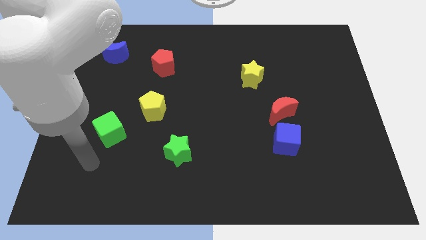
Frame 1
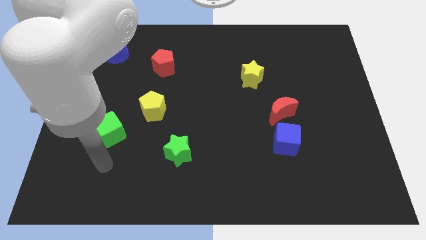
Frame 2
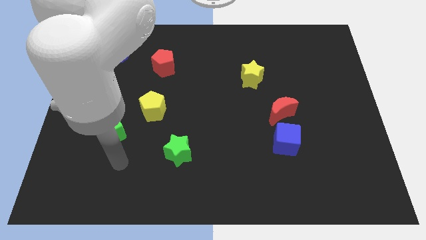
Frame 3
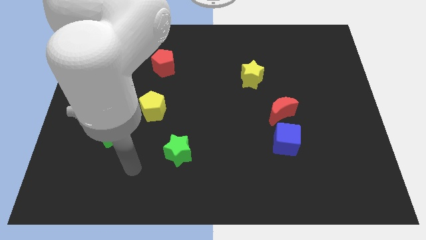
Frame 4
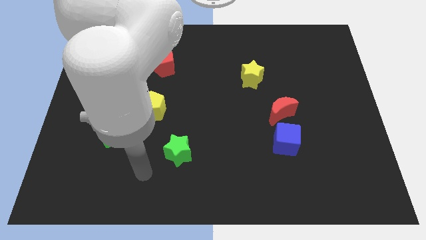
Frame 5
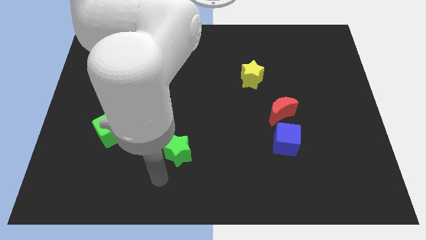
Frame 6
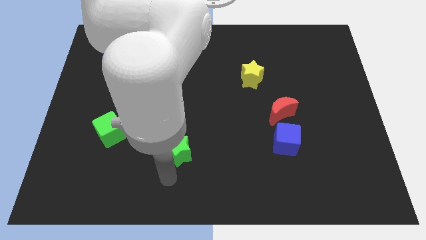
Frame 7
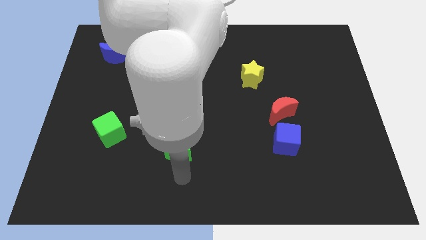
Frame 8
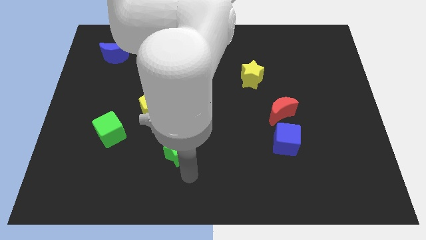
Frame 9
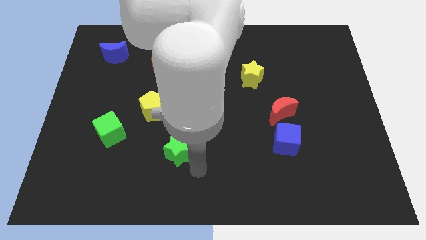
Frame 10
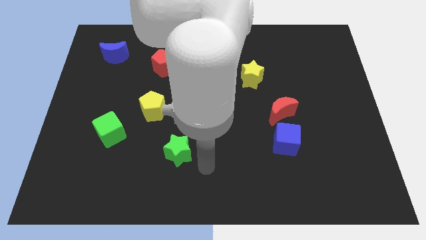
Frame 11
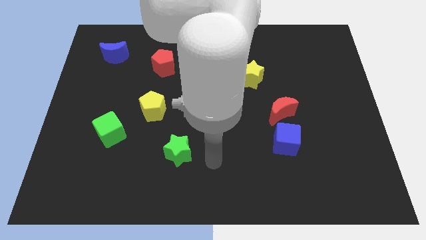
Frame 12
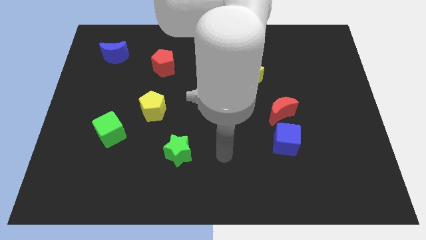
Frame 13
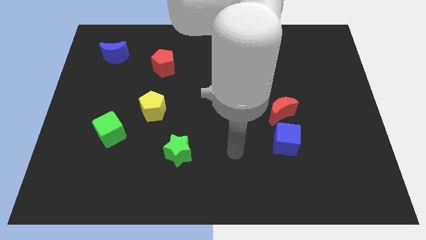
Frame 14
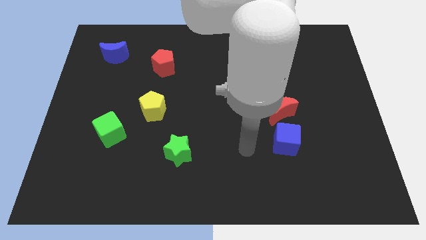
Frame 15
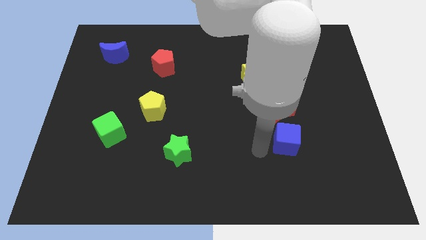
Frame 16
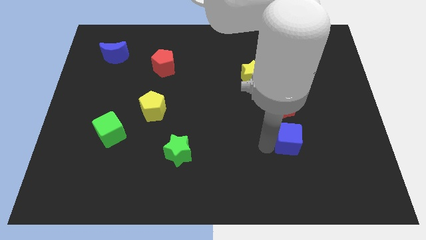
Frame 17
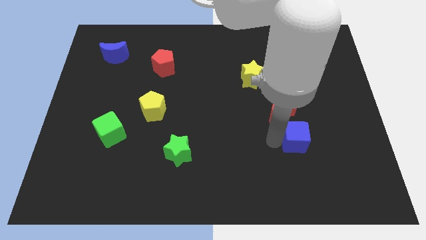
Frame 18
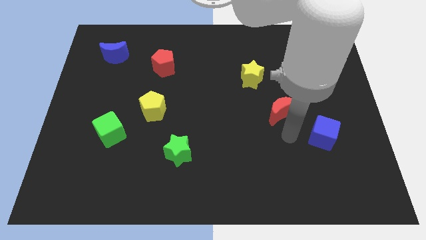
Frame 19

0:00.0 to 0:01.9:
separate the red moon from the blue cube

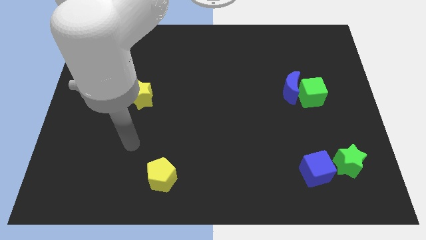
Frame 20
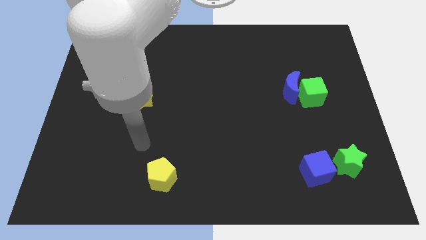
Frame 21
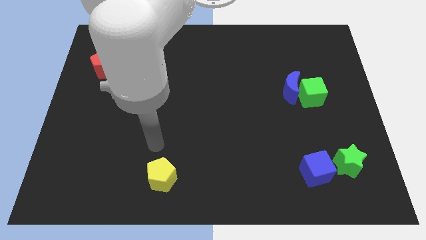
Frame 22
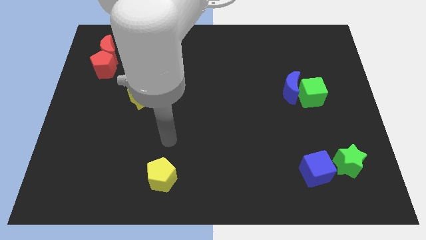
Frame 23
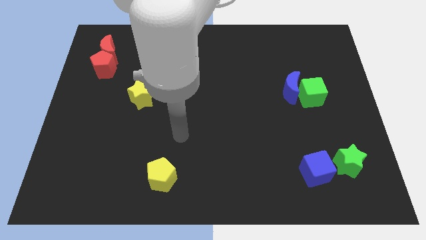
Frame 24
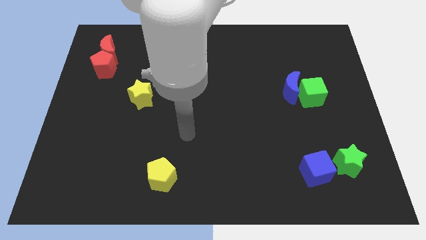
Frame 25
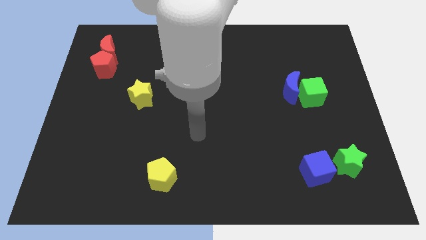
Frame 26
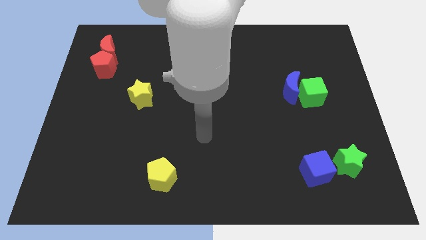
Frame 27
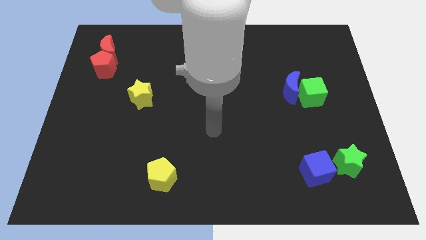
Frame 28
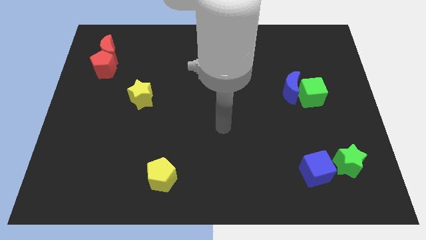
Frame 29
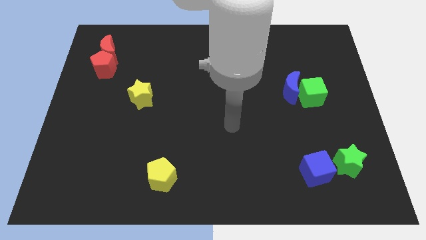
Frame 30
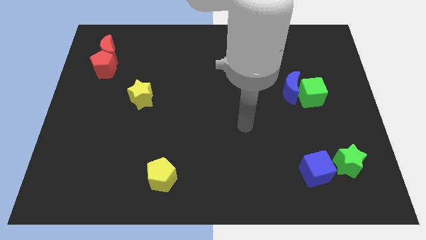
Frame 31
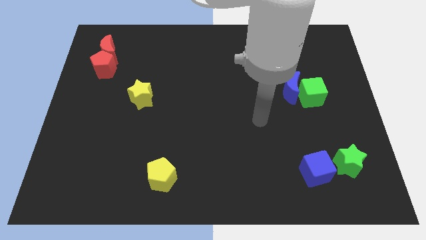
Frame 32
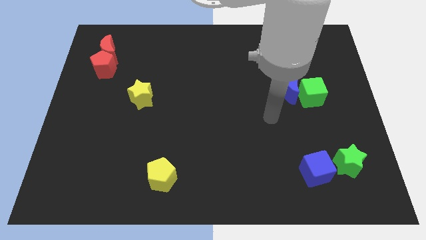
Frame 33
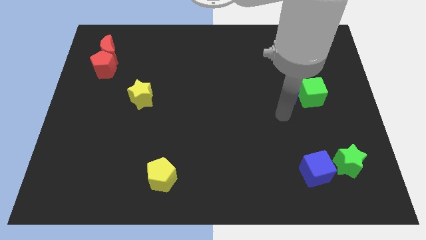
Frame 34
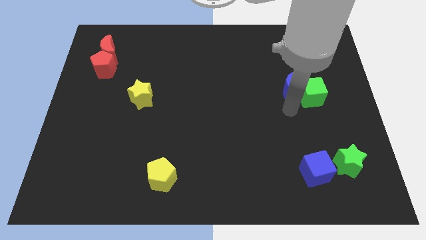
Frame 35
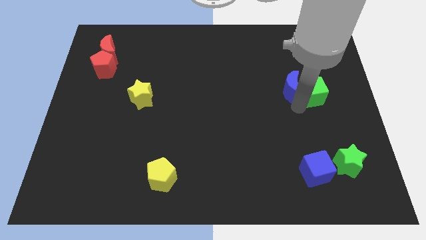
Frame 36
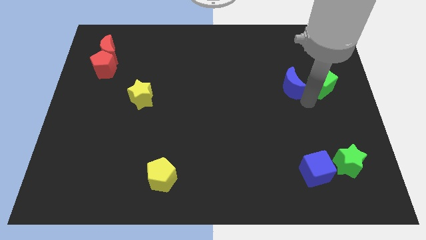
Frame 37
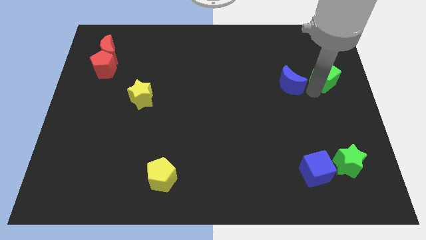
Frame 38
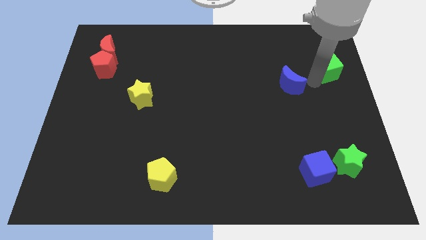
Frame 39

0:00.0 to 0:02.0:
pull the blue moon apart from the green cube

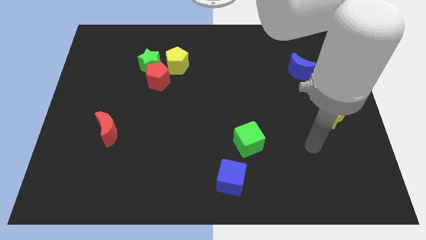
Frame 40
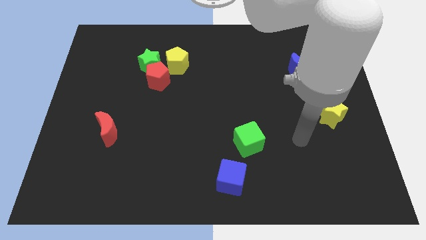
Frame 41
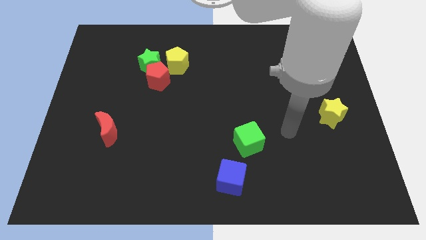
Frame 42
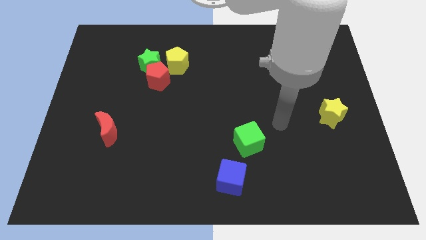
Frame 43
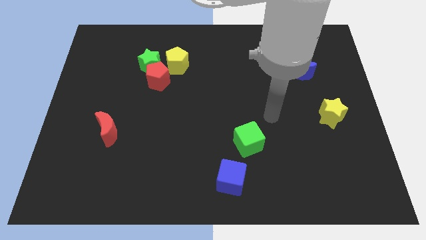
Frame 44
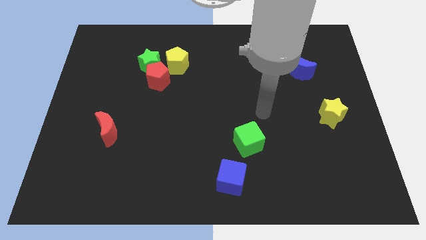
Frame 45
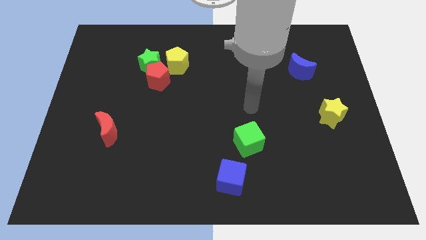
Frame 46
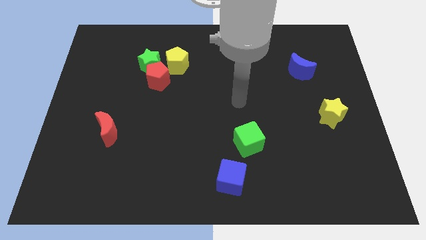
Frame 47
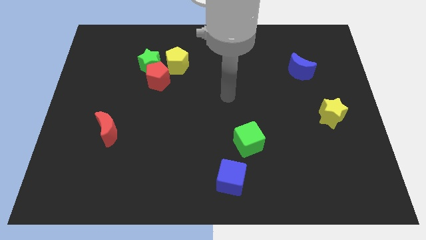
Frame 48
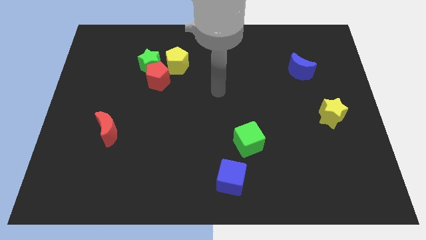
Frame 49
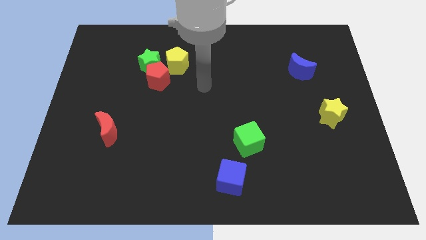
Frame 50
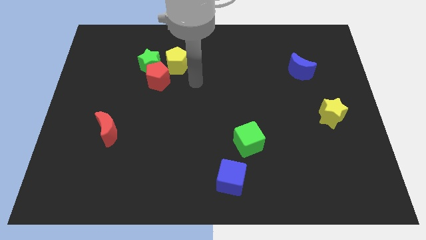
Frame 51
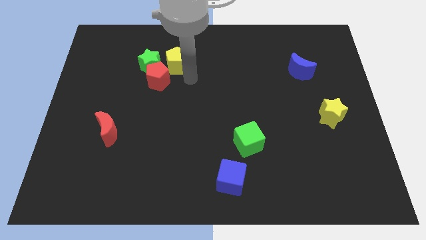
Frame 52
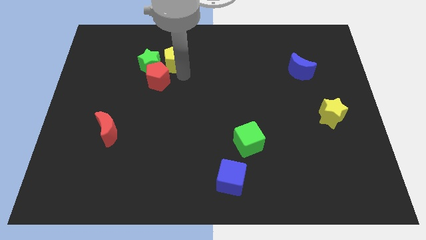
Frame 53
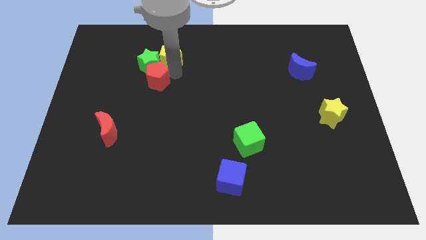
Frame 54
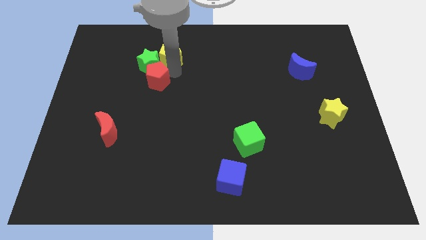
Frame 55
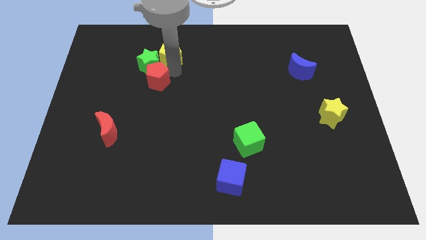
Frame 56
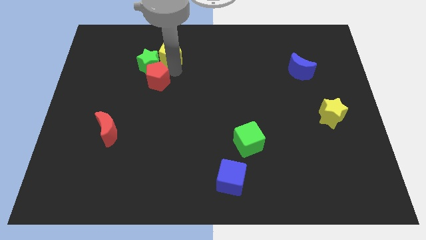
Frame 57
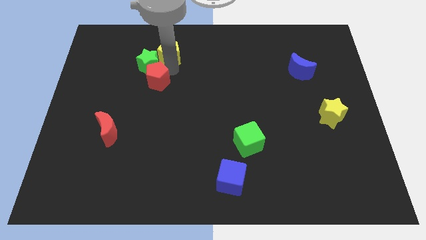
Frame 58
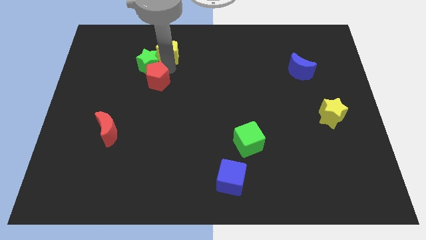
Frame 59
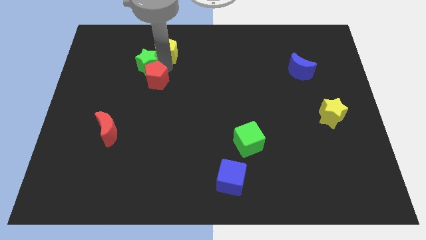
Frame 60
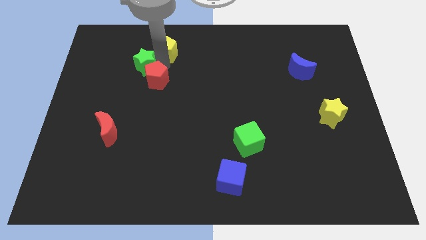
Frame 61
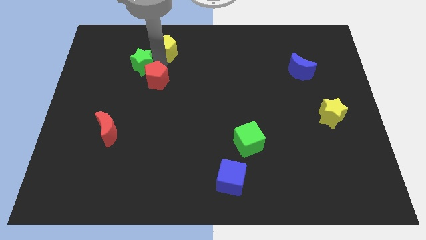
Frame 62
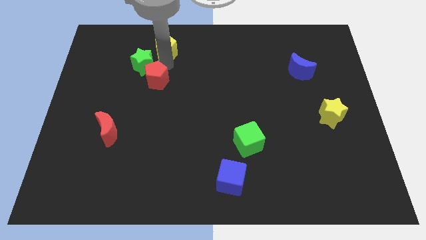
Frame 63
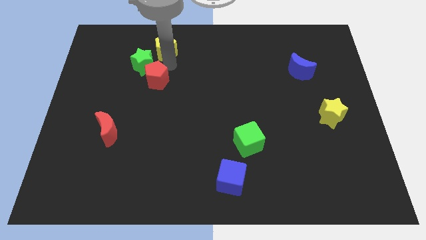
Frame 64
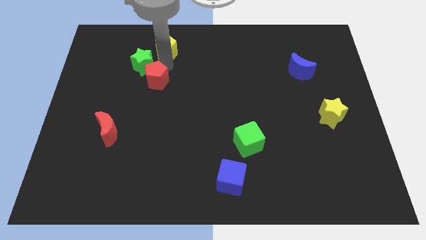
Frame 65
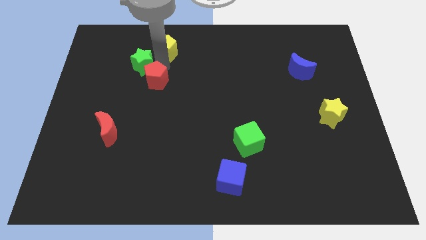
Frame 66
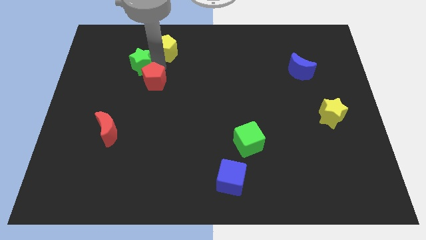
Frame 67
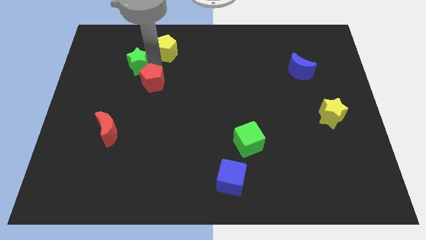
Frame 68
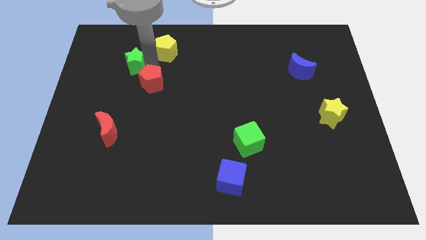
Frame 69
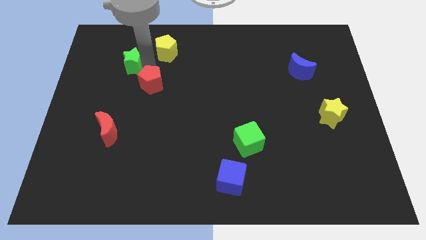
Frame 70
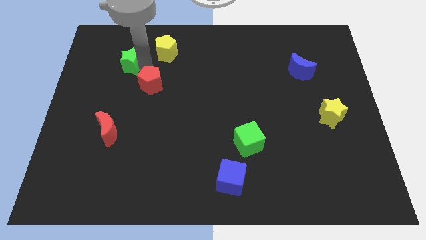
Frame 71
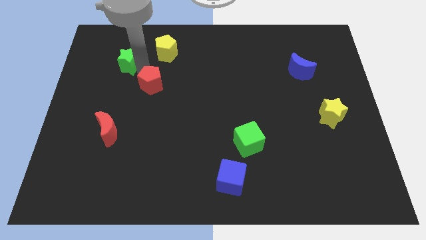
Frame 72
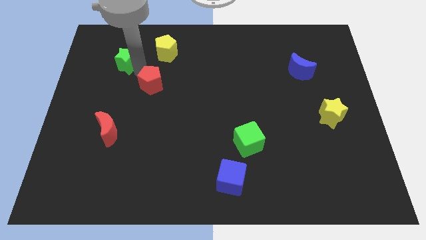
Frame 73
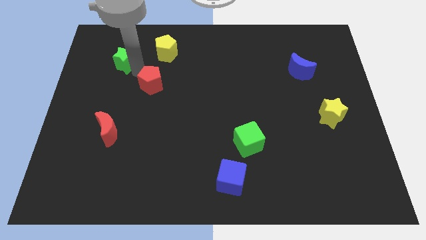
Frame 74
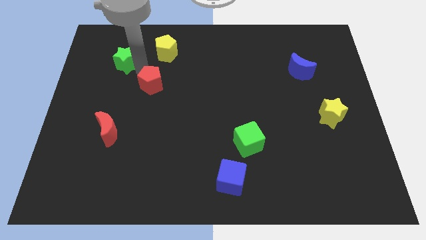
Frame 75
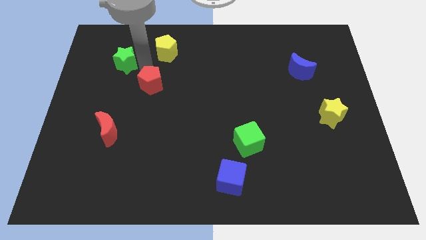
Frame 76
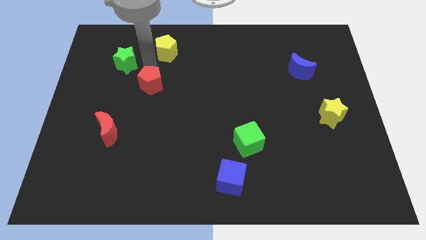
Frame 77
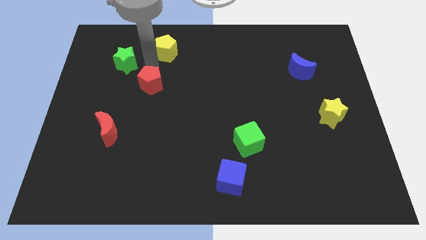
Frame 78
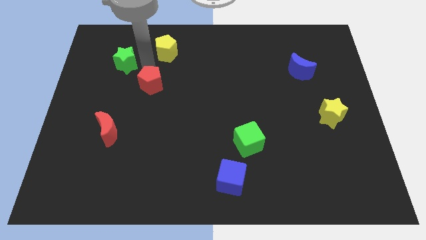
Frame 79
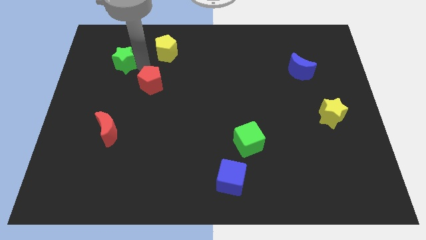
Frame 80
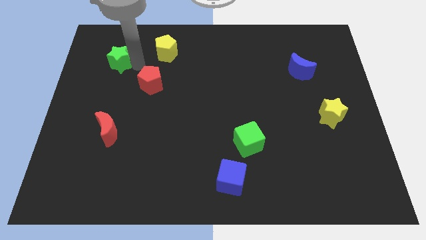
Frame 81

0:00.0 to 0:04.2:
move the green star away from the red pentagon and yellow pentagon

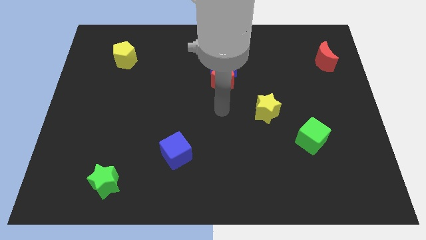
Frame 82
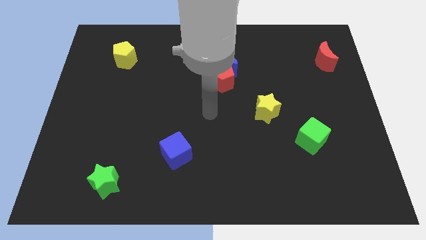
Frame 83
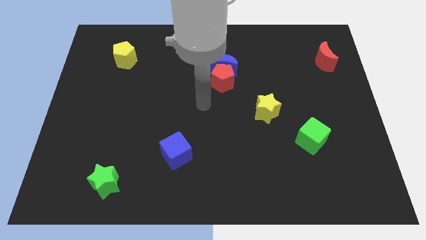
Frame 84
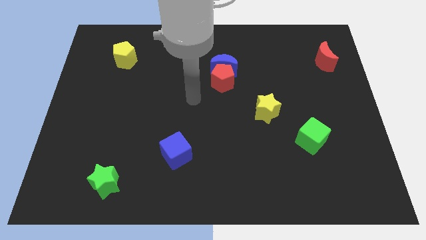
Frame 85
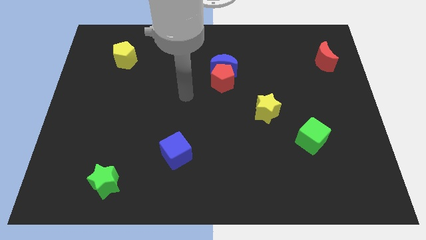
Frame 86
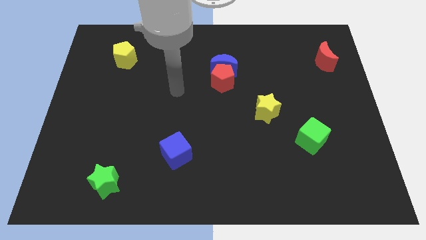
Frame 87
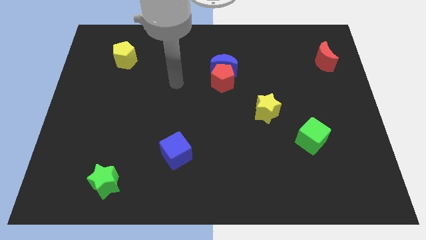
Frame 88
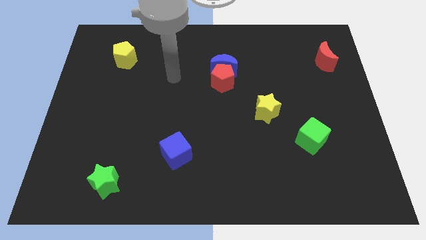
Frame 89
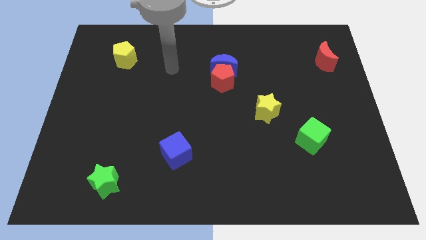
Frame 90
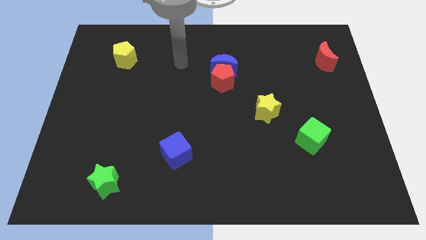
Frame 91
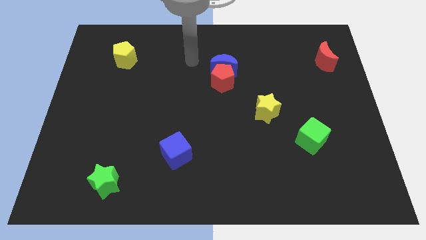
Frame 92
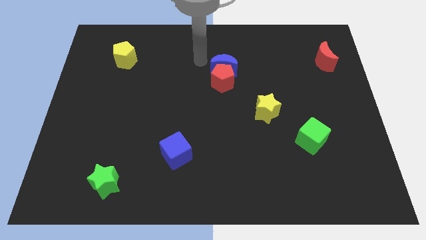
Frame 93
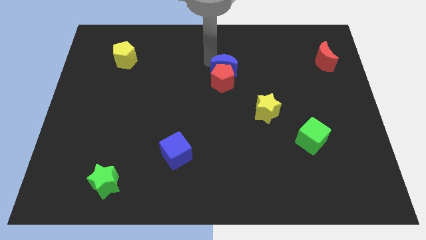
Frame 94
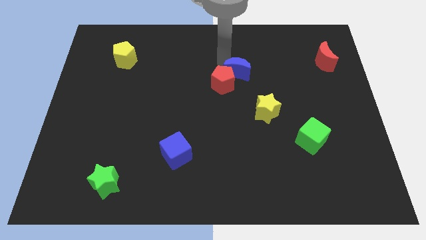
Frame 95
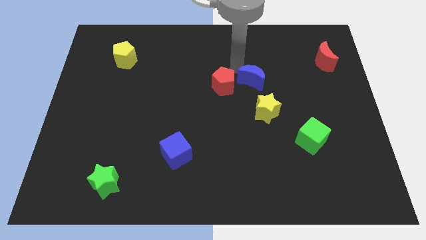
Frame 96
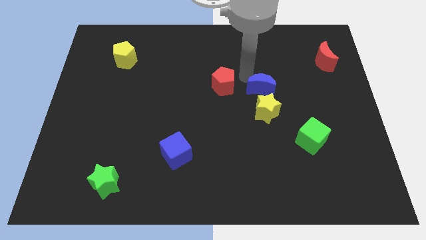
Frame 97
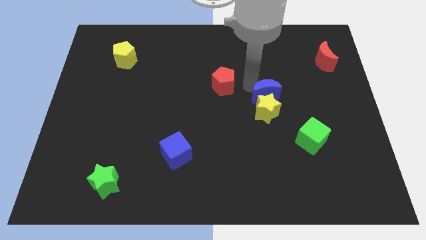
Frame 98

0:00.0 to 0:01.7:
separate the red pentagon from the blue moon
